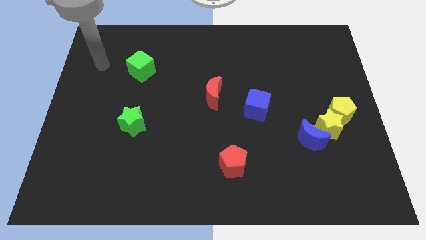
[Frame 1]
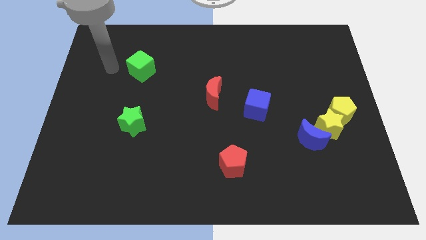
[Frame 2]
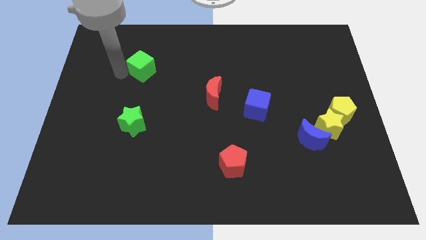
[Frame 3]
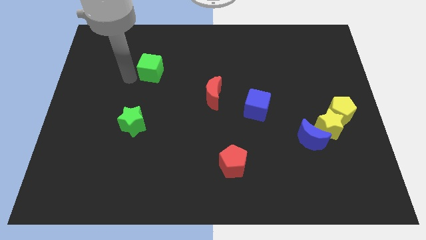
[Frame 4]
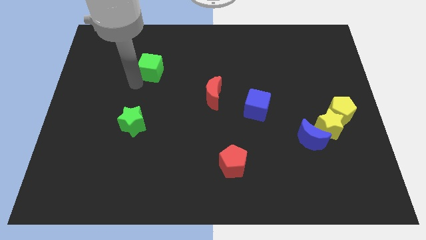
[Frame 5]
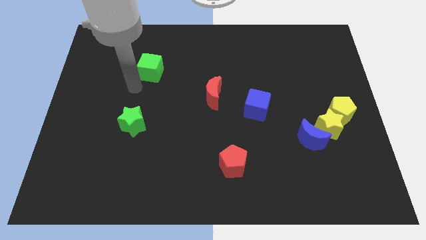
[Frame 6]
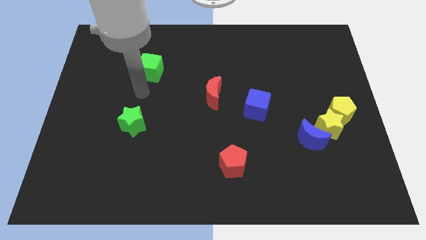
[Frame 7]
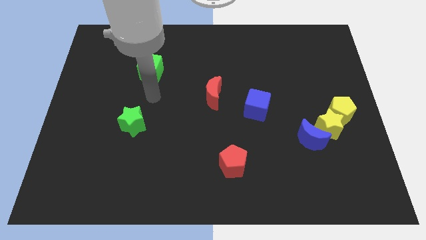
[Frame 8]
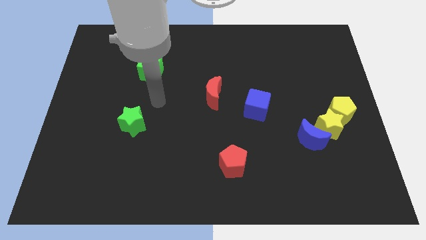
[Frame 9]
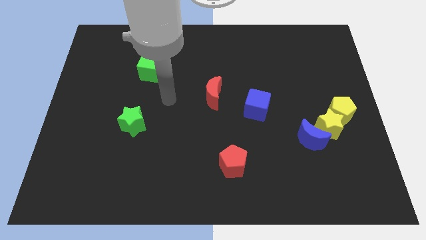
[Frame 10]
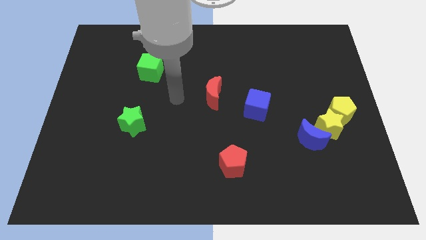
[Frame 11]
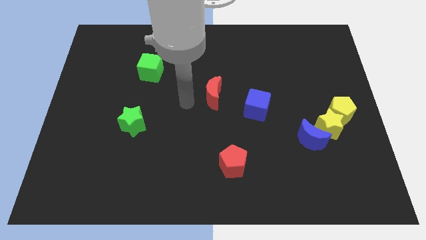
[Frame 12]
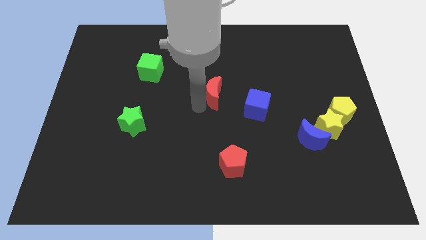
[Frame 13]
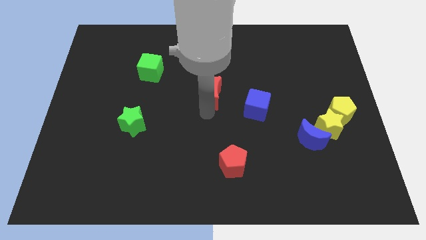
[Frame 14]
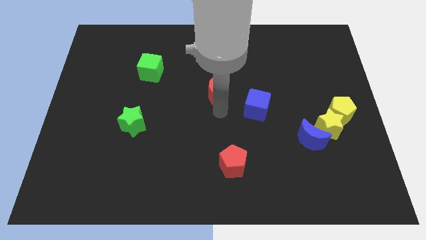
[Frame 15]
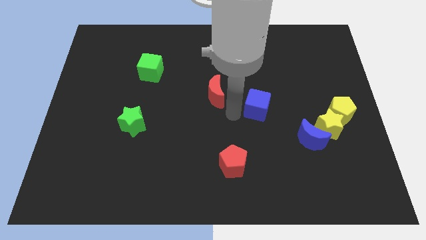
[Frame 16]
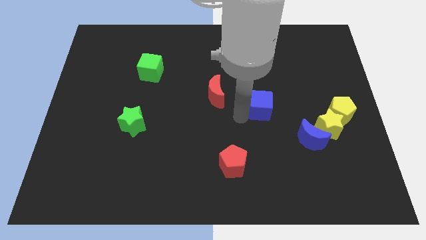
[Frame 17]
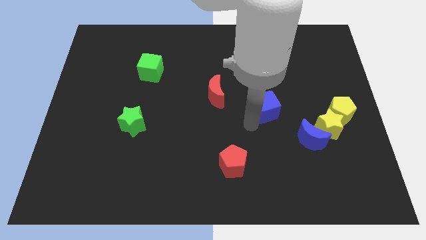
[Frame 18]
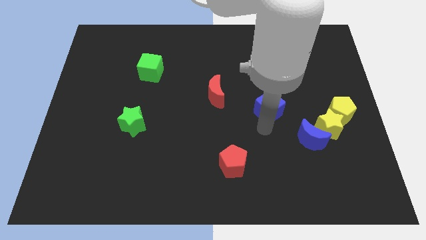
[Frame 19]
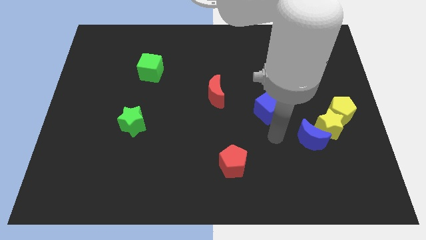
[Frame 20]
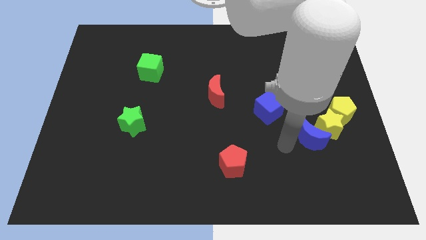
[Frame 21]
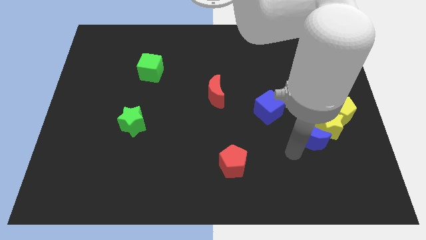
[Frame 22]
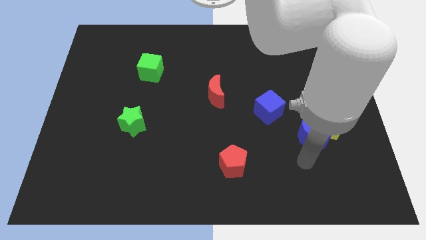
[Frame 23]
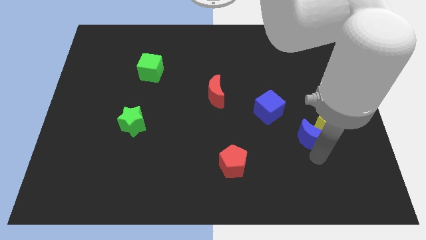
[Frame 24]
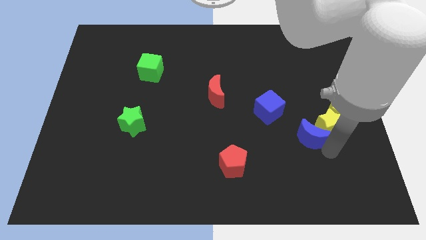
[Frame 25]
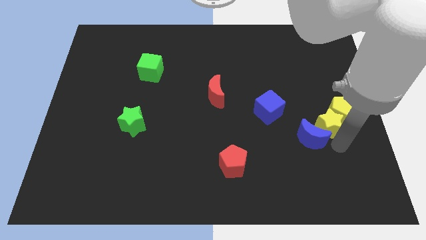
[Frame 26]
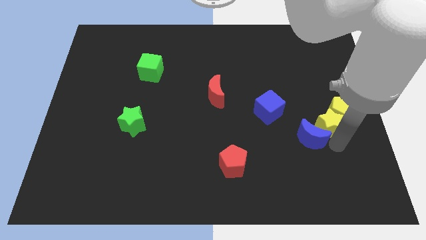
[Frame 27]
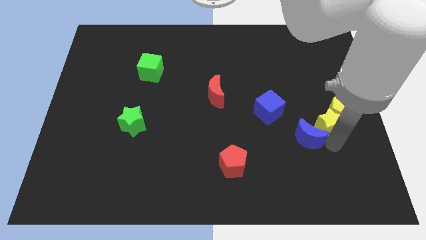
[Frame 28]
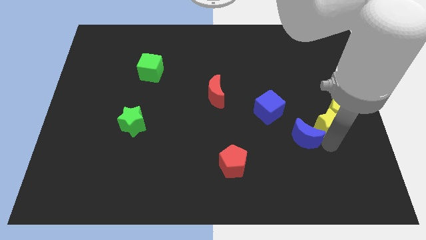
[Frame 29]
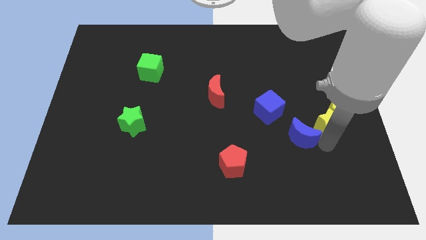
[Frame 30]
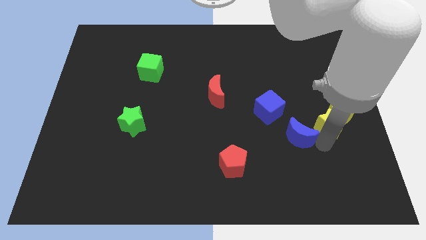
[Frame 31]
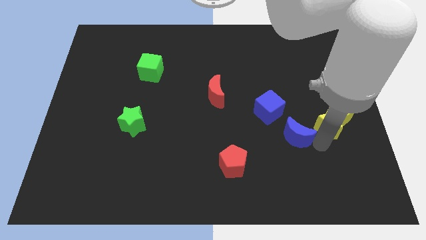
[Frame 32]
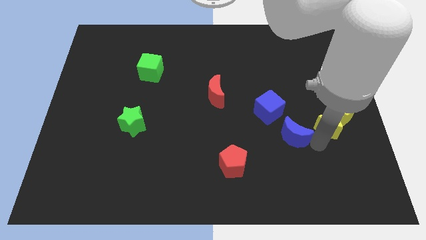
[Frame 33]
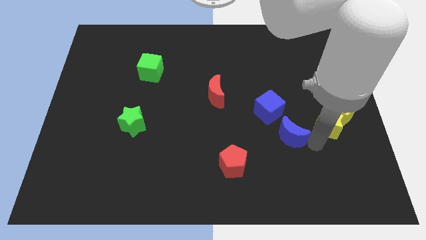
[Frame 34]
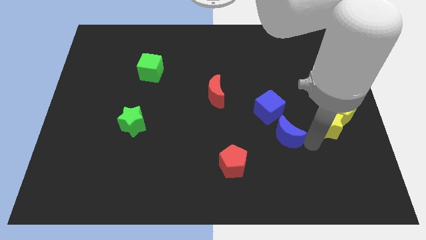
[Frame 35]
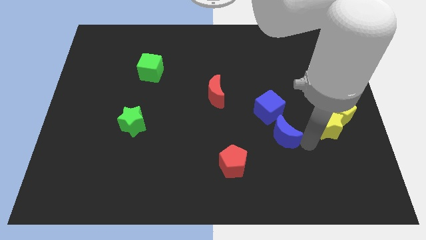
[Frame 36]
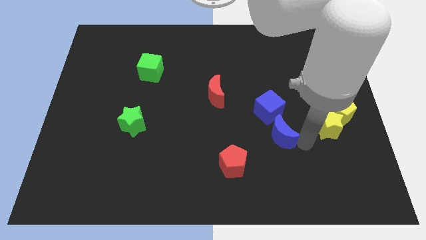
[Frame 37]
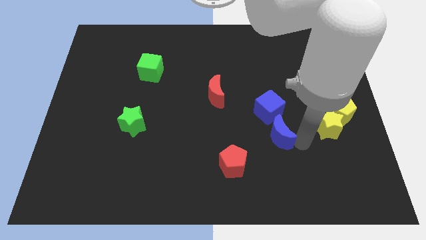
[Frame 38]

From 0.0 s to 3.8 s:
move the blue moon to the left a bit

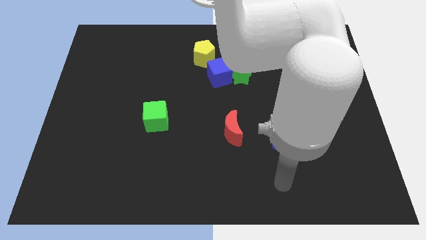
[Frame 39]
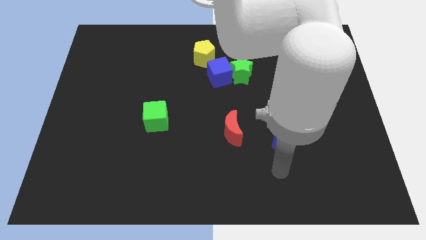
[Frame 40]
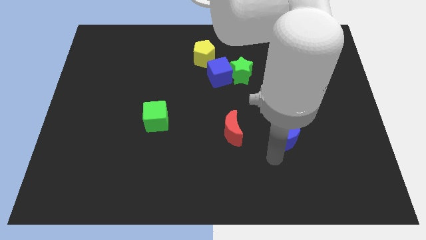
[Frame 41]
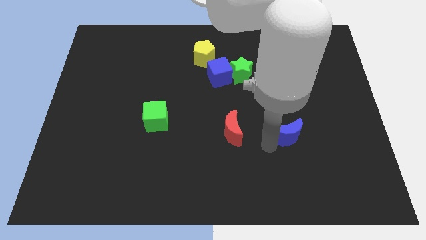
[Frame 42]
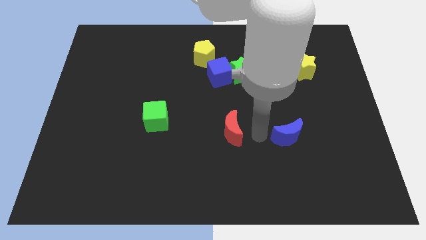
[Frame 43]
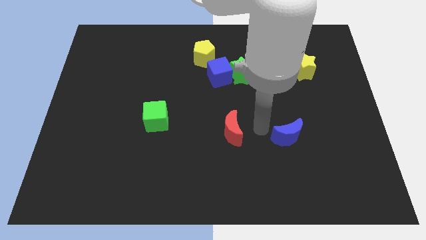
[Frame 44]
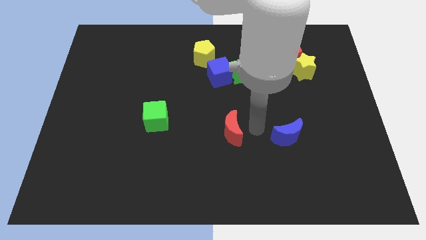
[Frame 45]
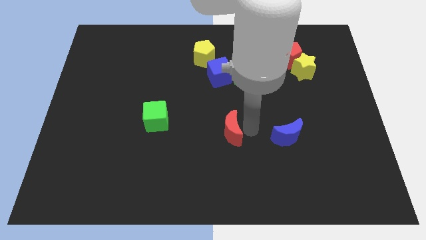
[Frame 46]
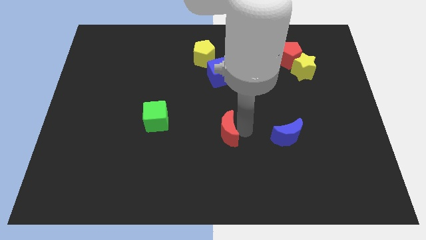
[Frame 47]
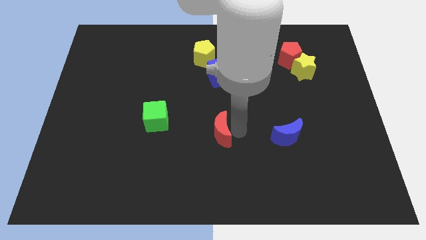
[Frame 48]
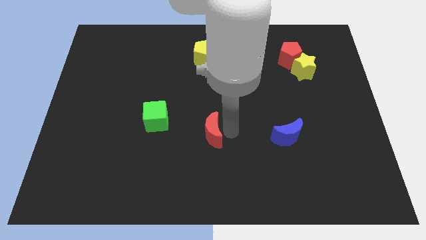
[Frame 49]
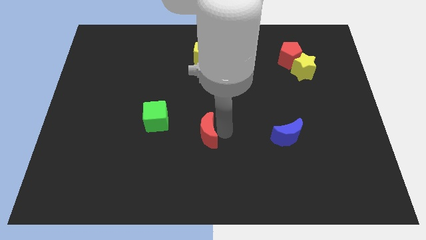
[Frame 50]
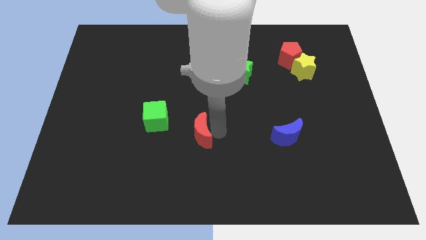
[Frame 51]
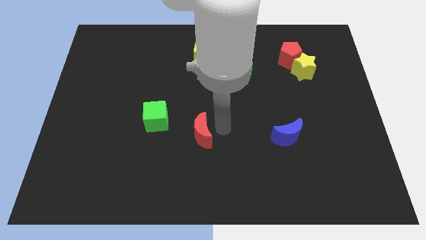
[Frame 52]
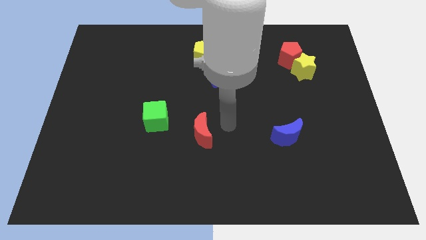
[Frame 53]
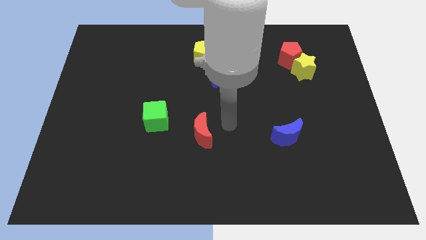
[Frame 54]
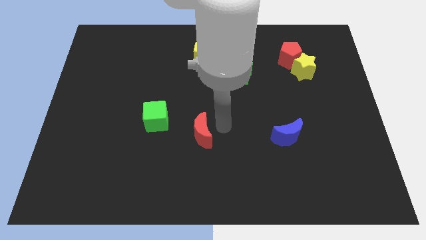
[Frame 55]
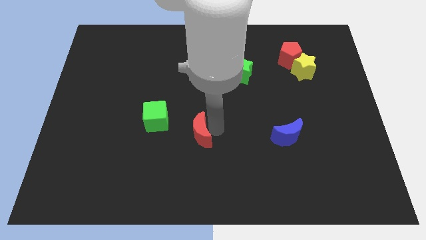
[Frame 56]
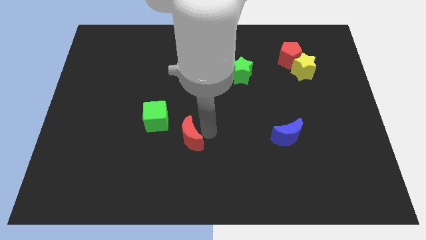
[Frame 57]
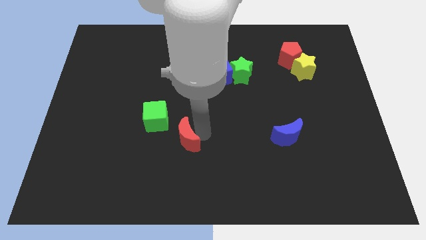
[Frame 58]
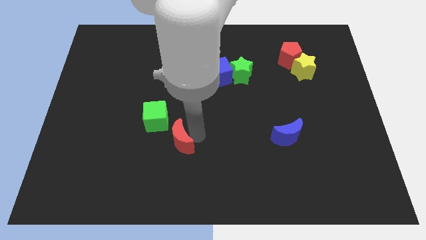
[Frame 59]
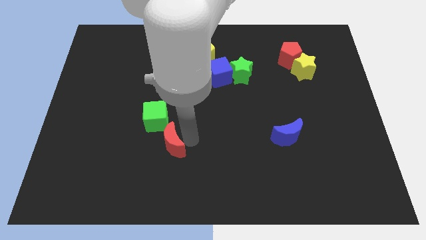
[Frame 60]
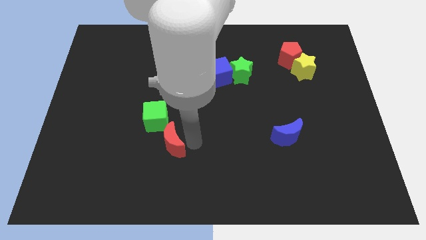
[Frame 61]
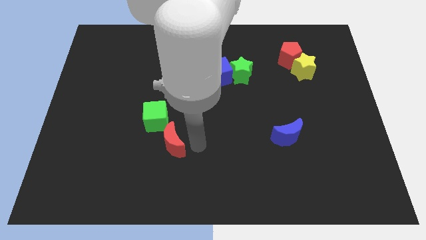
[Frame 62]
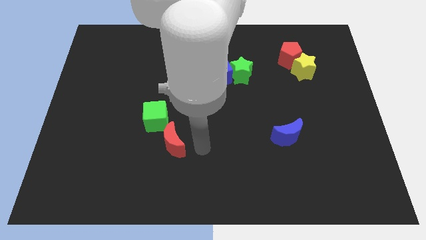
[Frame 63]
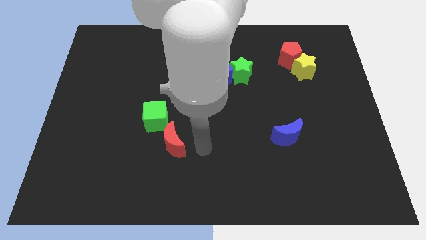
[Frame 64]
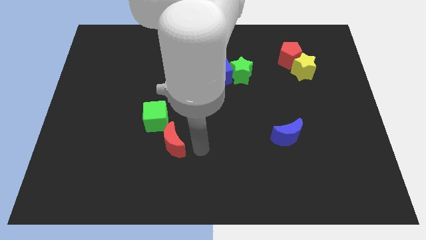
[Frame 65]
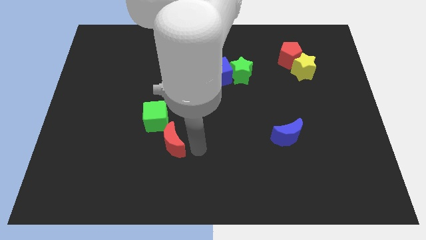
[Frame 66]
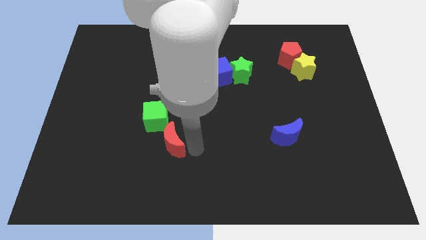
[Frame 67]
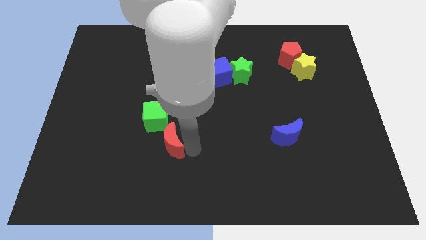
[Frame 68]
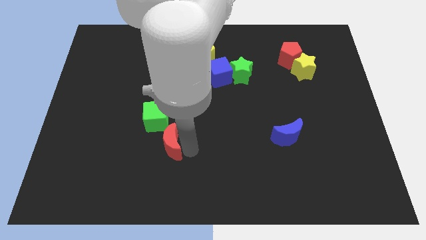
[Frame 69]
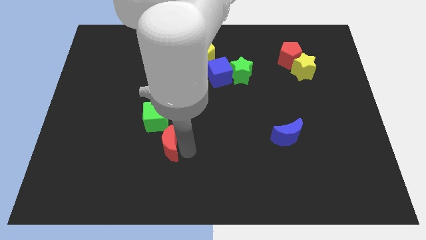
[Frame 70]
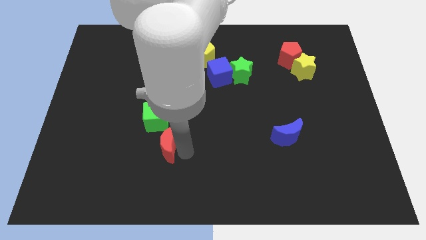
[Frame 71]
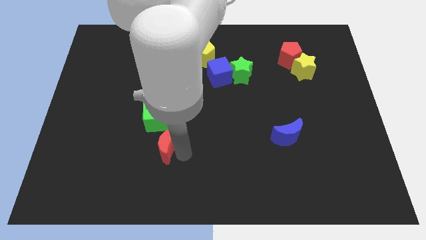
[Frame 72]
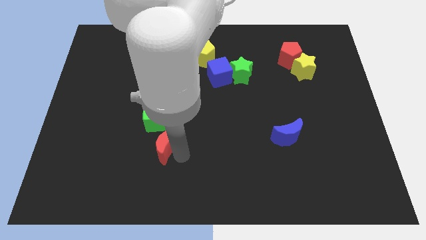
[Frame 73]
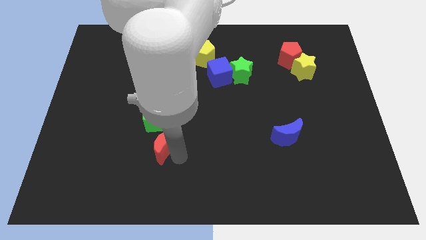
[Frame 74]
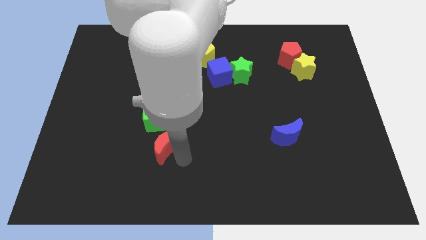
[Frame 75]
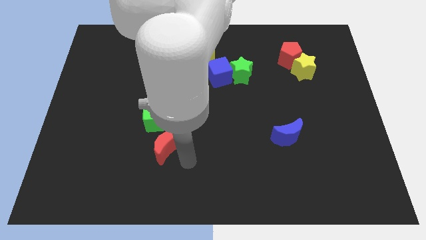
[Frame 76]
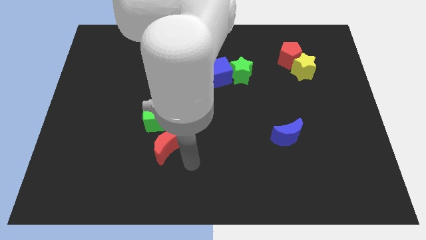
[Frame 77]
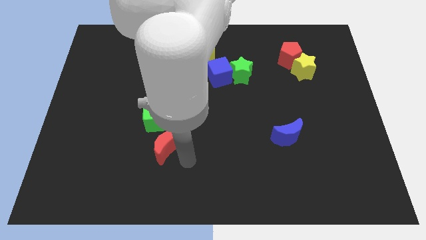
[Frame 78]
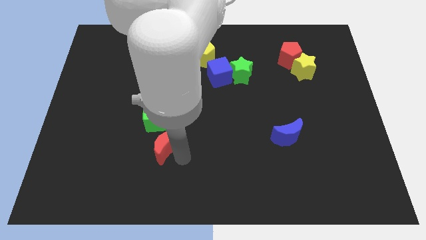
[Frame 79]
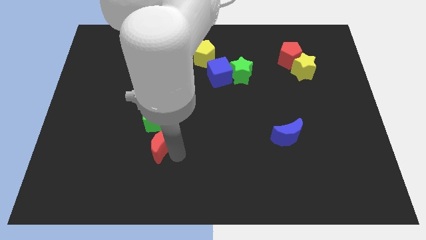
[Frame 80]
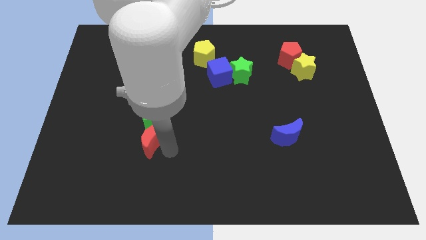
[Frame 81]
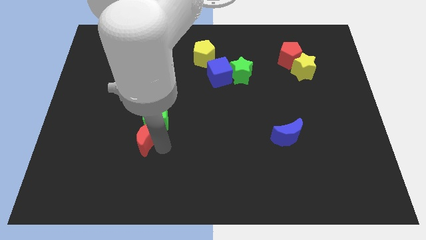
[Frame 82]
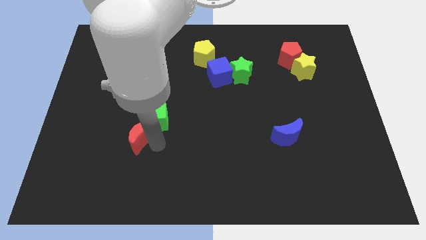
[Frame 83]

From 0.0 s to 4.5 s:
move the red moon to the left
